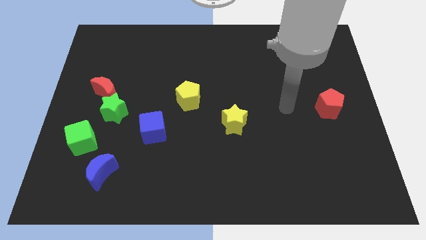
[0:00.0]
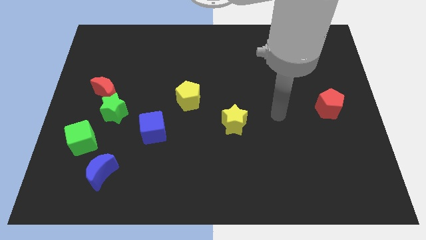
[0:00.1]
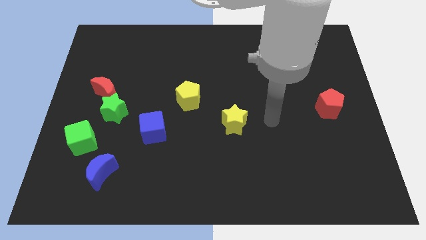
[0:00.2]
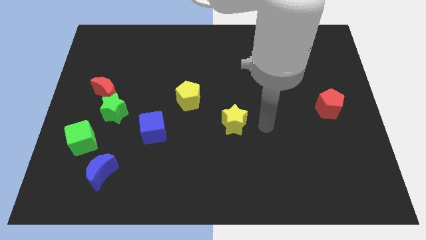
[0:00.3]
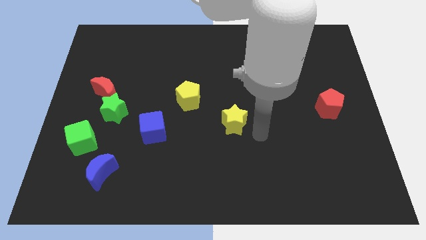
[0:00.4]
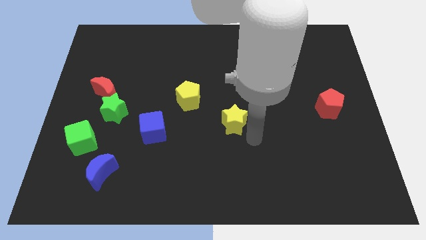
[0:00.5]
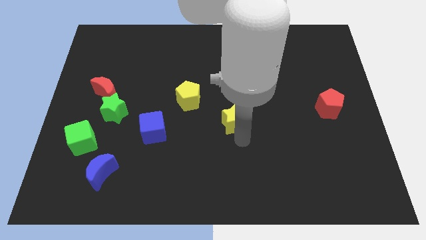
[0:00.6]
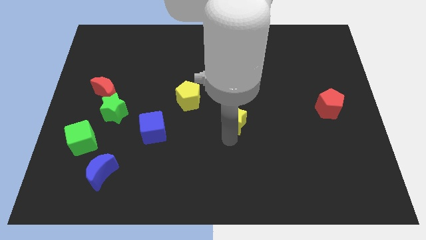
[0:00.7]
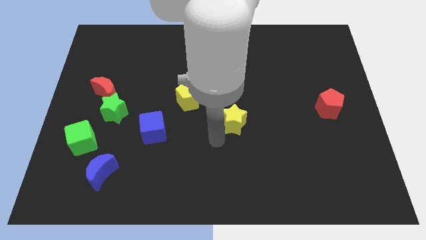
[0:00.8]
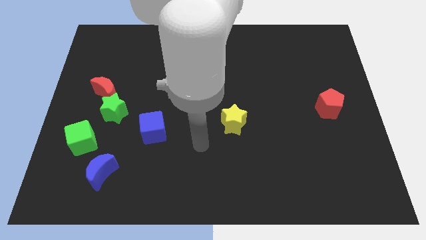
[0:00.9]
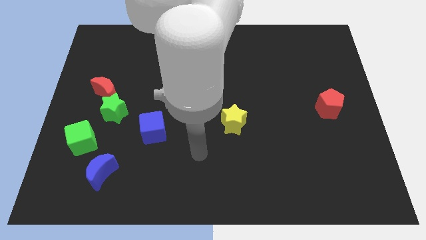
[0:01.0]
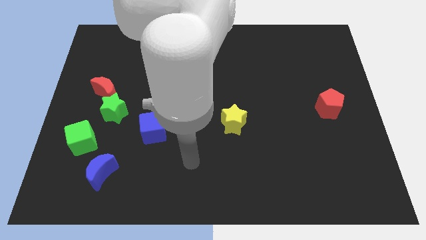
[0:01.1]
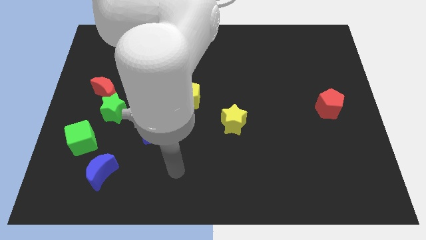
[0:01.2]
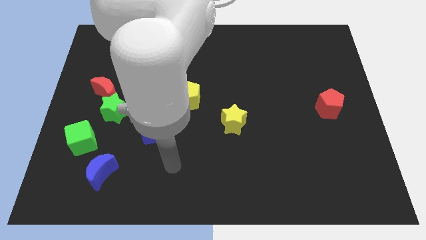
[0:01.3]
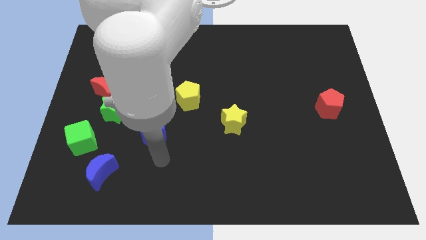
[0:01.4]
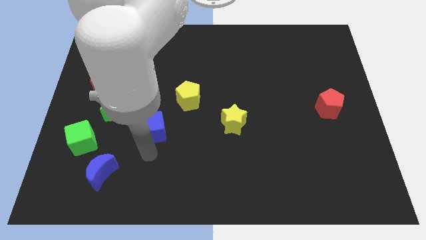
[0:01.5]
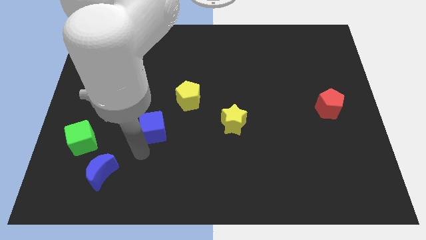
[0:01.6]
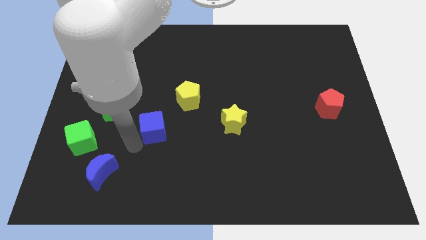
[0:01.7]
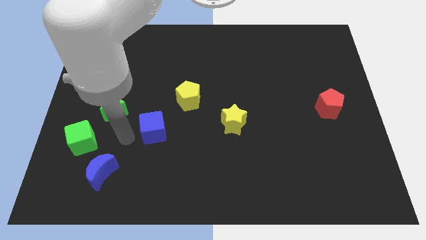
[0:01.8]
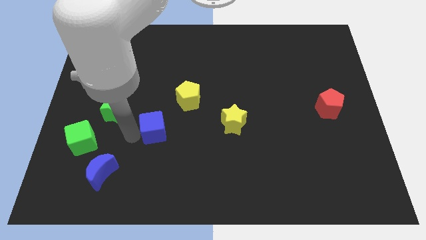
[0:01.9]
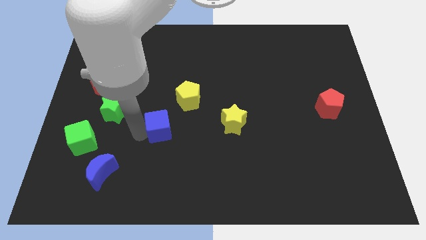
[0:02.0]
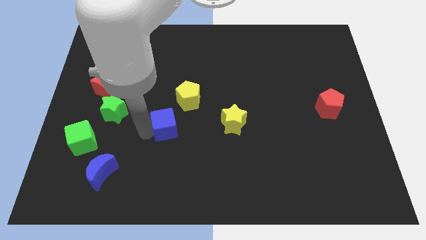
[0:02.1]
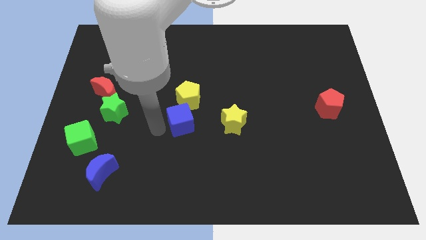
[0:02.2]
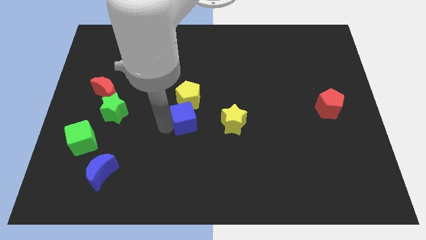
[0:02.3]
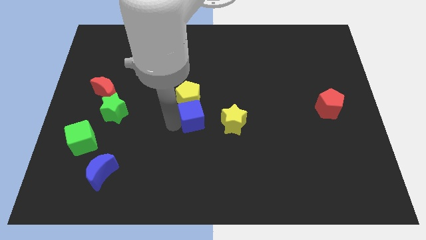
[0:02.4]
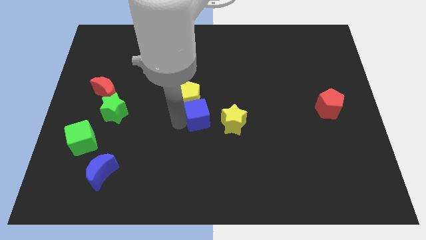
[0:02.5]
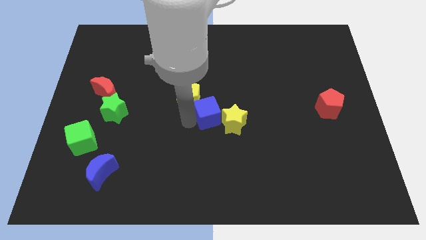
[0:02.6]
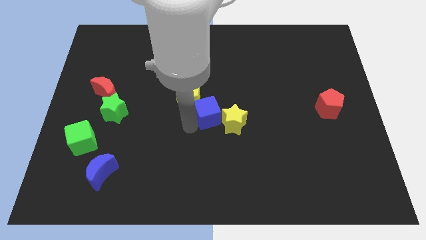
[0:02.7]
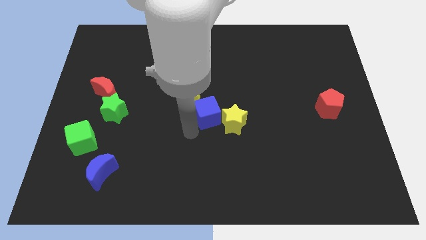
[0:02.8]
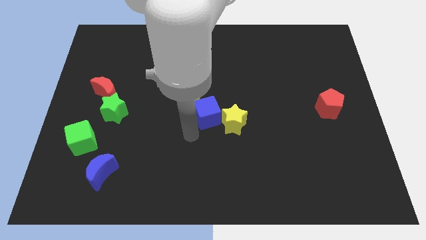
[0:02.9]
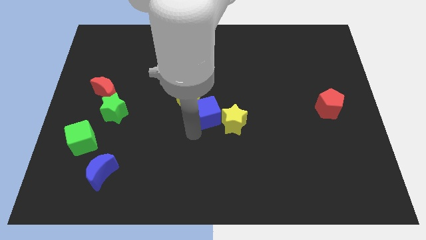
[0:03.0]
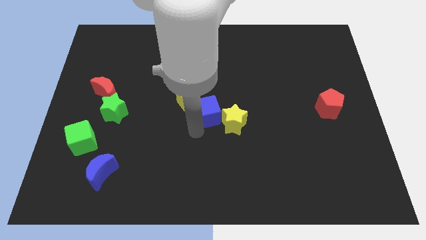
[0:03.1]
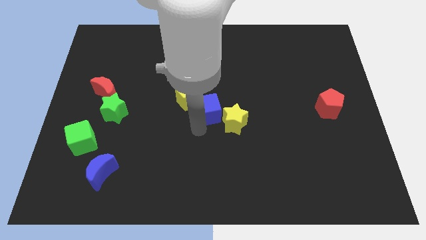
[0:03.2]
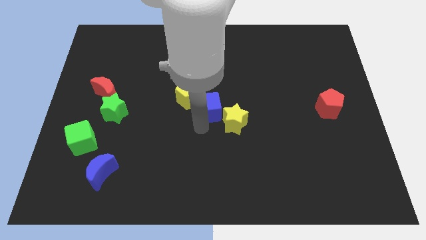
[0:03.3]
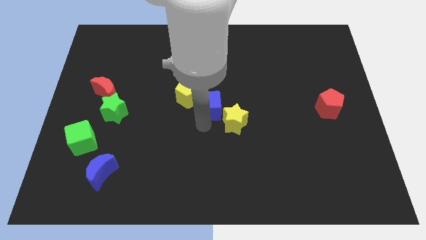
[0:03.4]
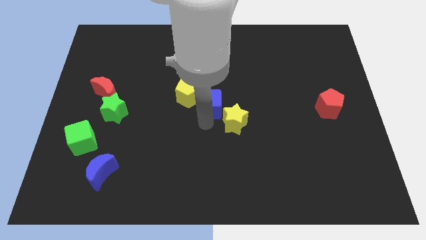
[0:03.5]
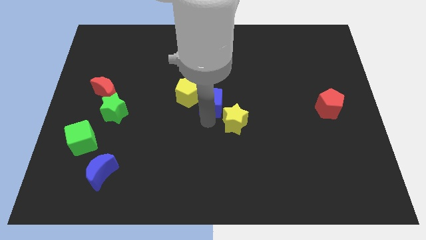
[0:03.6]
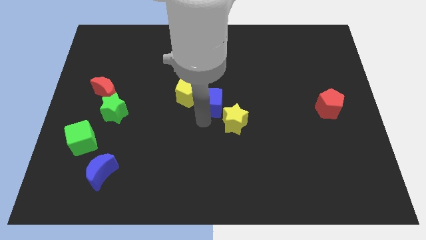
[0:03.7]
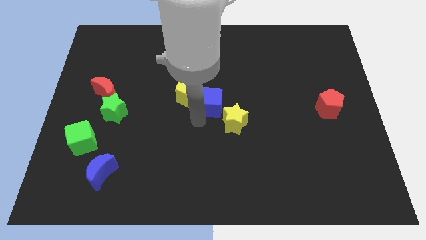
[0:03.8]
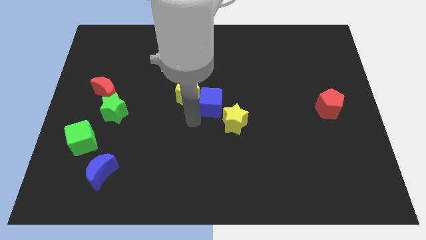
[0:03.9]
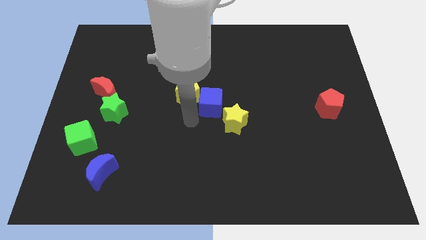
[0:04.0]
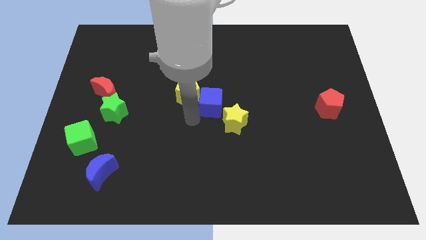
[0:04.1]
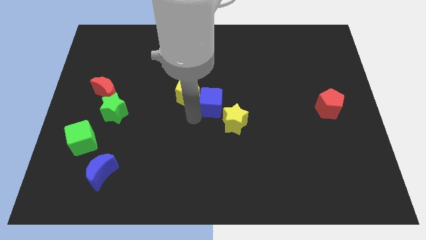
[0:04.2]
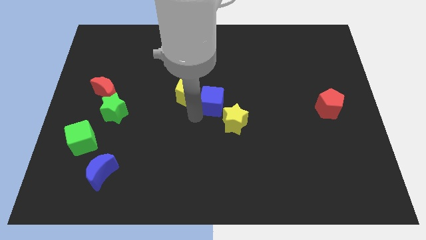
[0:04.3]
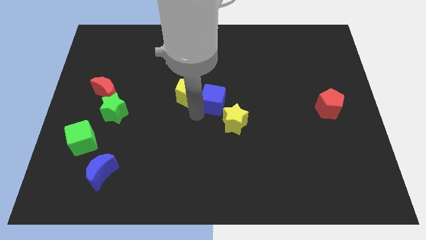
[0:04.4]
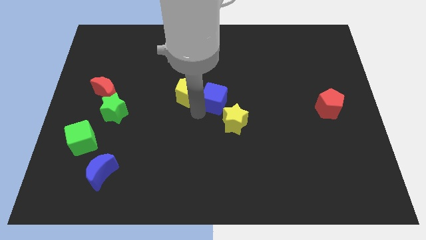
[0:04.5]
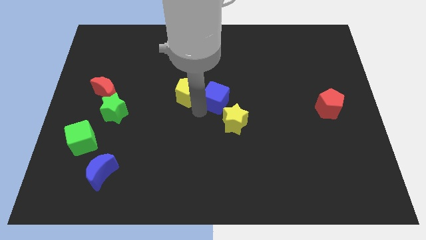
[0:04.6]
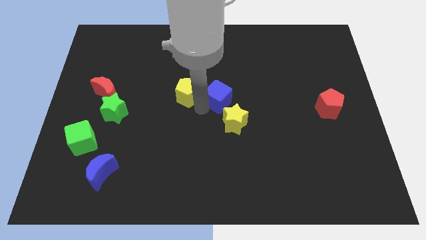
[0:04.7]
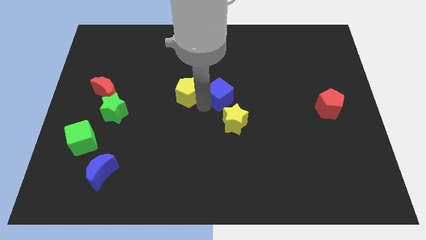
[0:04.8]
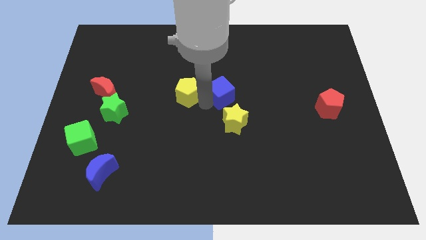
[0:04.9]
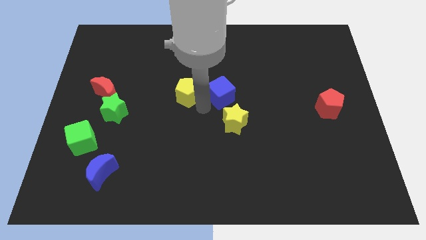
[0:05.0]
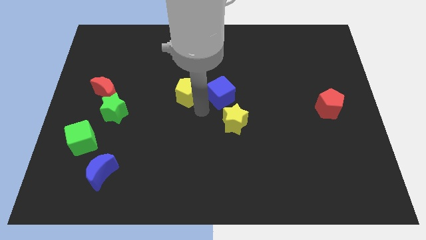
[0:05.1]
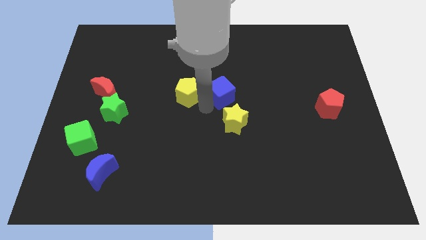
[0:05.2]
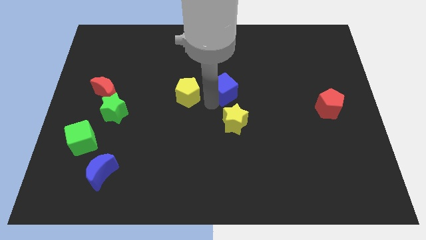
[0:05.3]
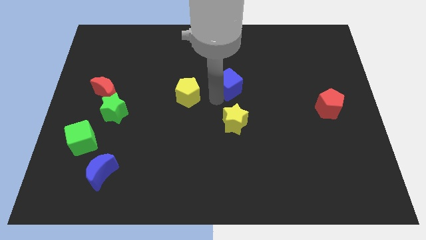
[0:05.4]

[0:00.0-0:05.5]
push the blue cube up and right diagonally

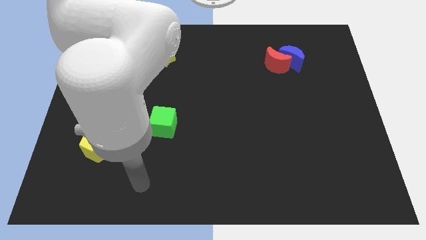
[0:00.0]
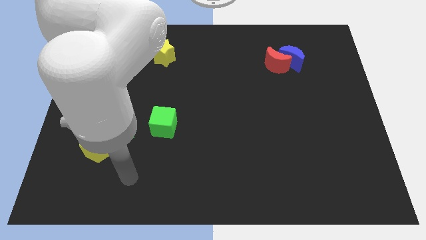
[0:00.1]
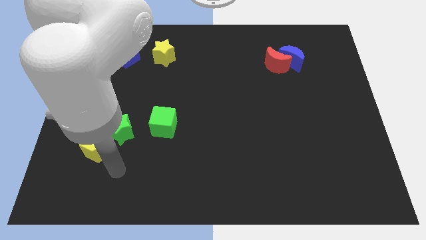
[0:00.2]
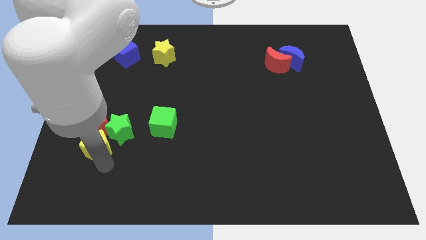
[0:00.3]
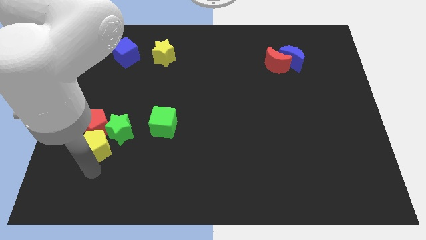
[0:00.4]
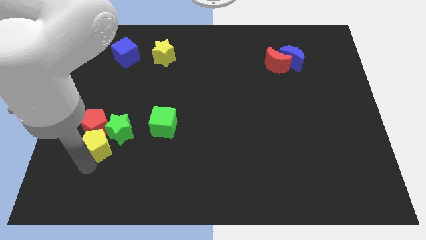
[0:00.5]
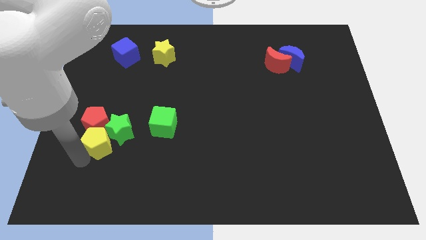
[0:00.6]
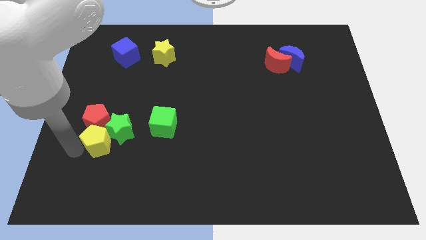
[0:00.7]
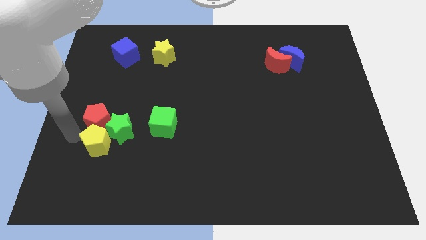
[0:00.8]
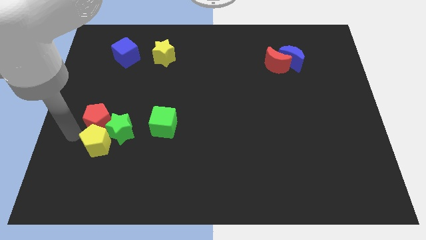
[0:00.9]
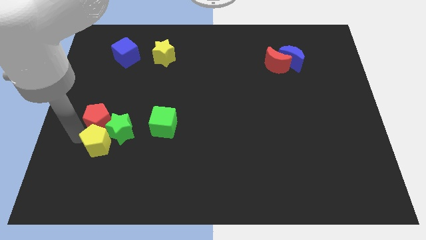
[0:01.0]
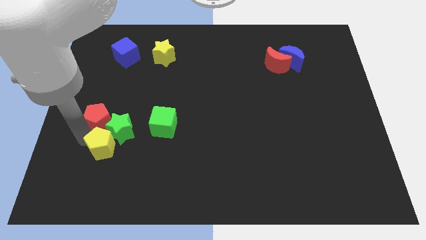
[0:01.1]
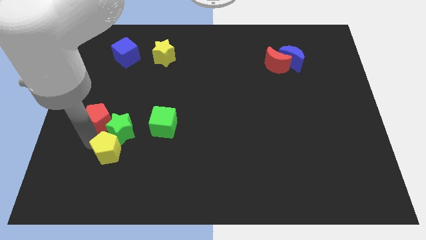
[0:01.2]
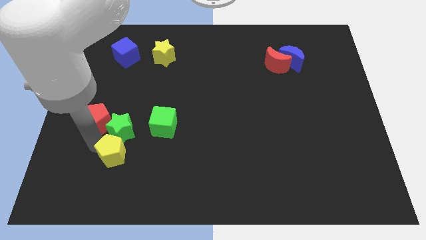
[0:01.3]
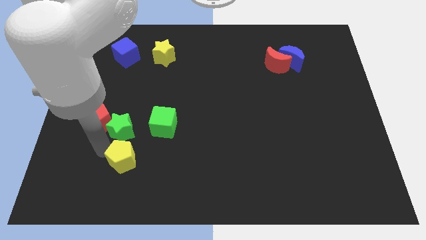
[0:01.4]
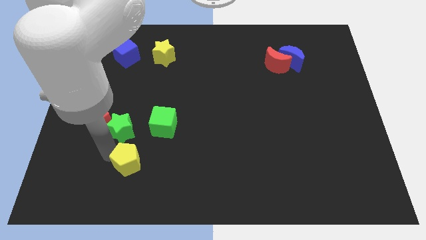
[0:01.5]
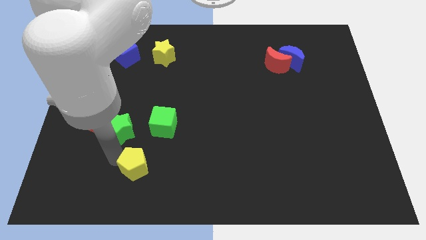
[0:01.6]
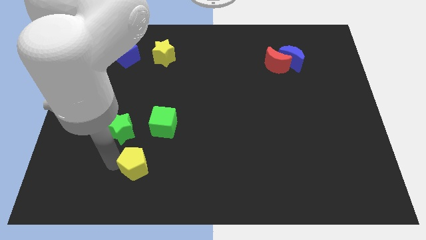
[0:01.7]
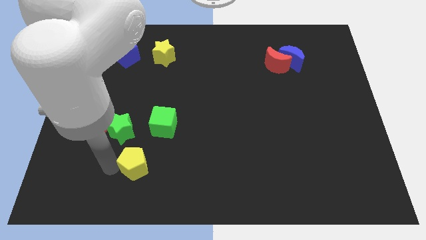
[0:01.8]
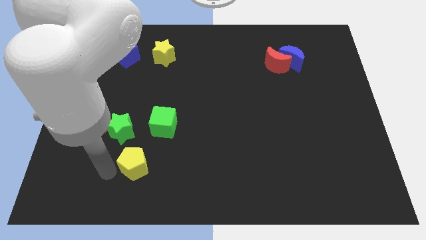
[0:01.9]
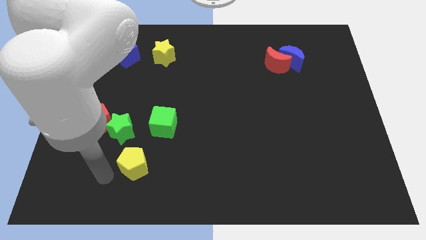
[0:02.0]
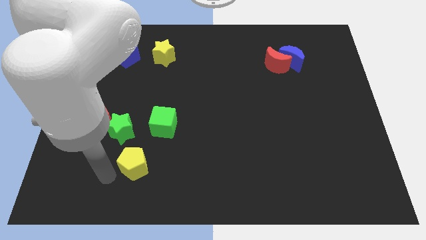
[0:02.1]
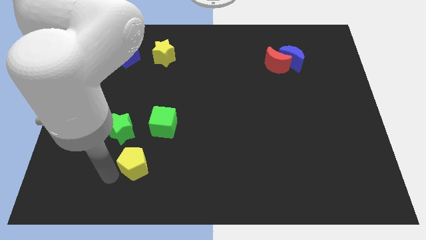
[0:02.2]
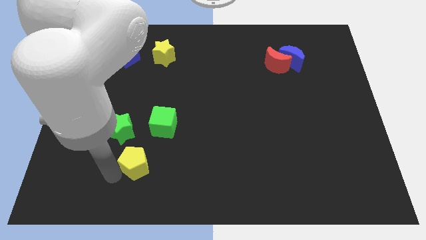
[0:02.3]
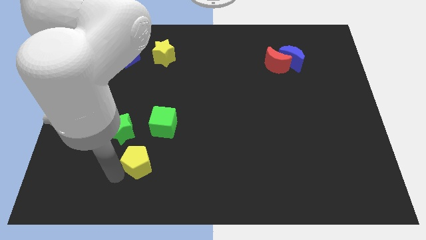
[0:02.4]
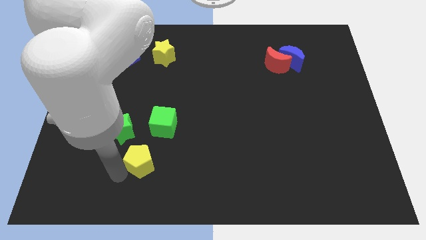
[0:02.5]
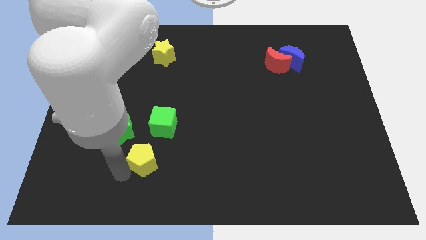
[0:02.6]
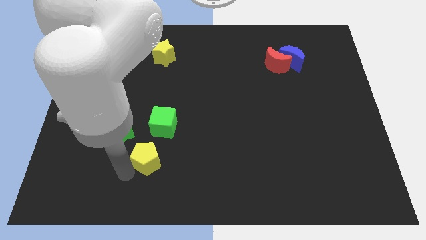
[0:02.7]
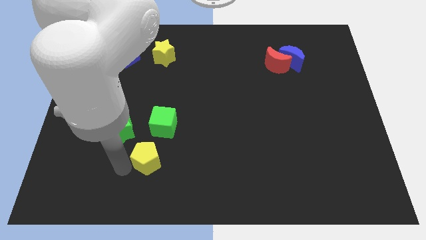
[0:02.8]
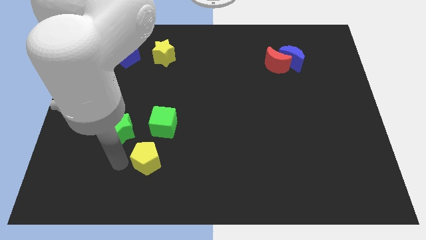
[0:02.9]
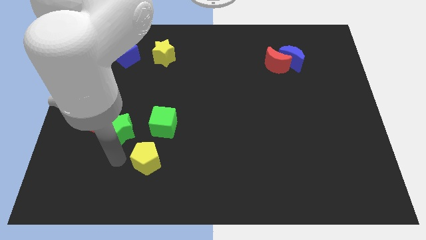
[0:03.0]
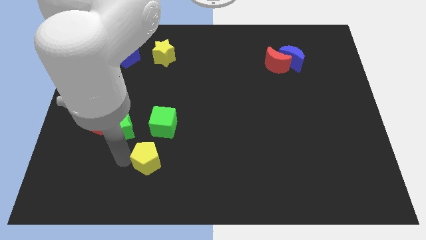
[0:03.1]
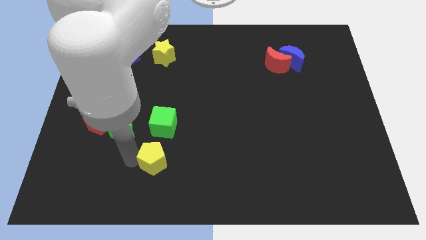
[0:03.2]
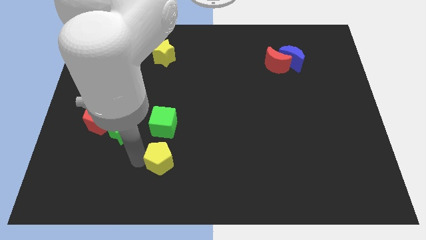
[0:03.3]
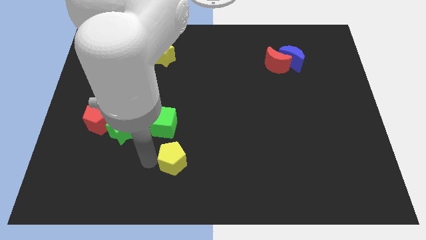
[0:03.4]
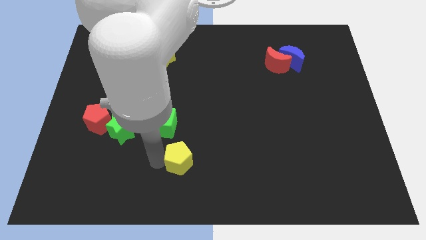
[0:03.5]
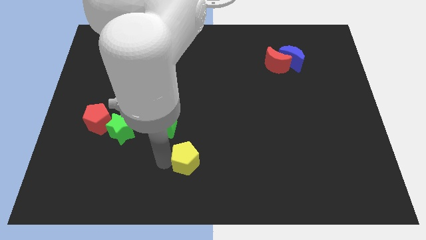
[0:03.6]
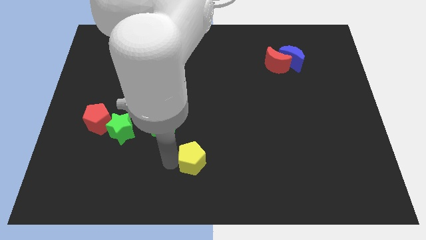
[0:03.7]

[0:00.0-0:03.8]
move the yellow pentagon right
